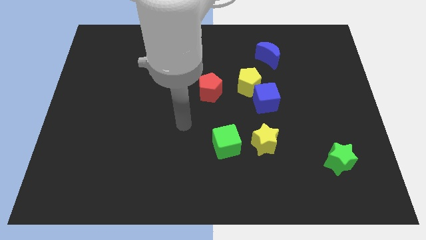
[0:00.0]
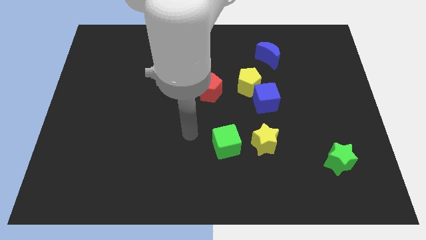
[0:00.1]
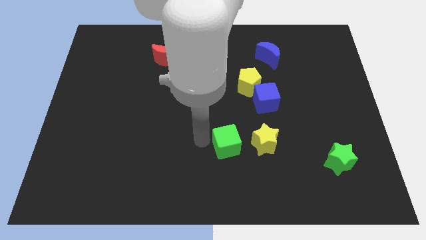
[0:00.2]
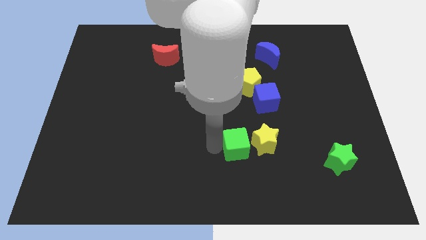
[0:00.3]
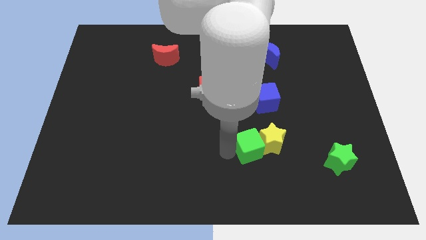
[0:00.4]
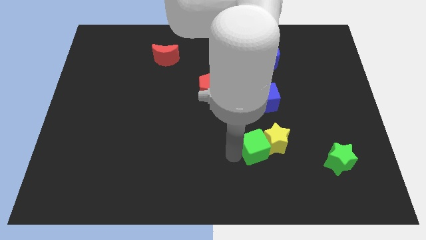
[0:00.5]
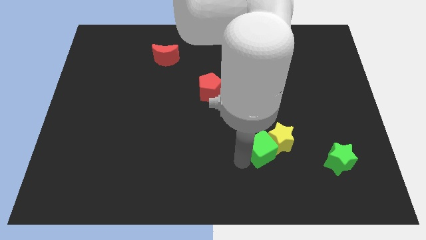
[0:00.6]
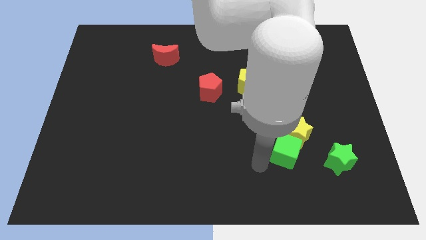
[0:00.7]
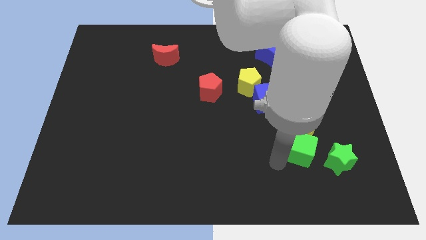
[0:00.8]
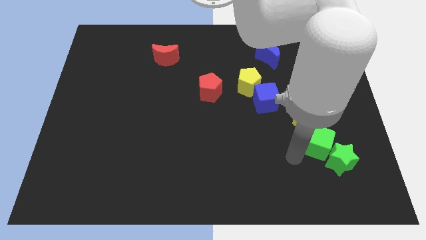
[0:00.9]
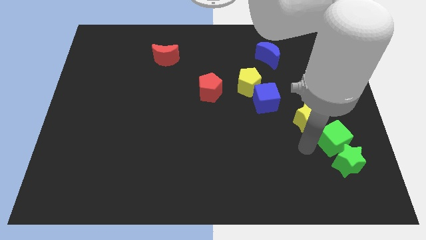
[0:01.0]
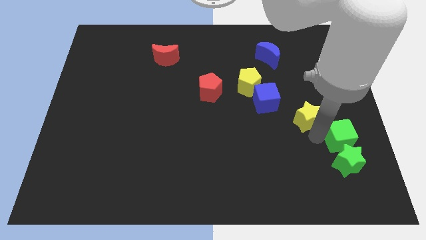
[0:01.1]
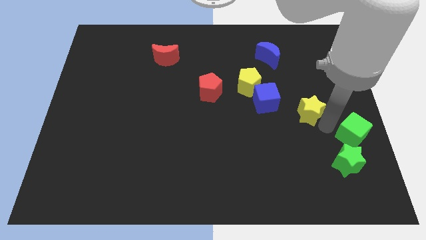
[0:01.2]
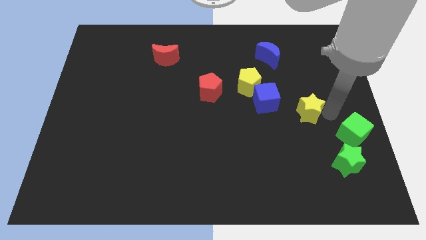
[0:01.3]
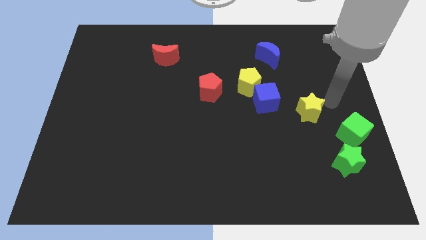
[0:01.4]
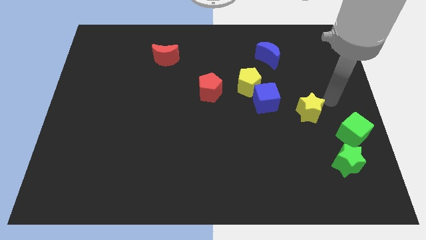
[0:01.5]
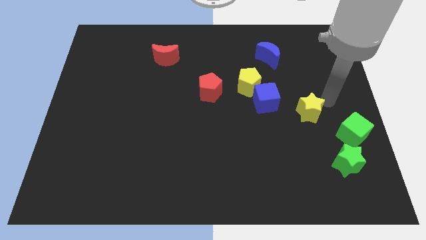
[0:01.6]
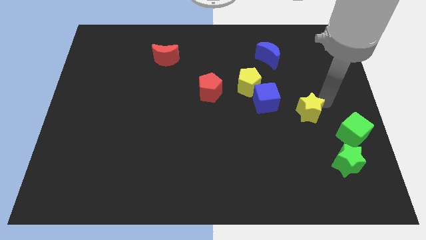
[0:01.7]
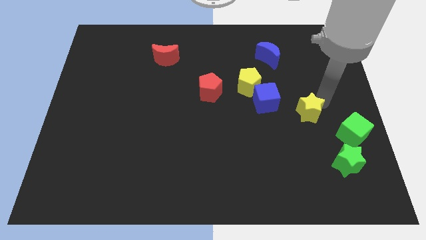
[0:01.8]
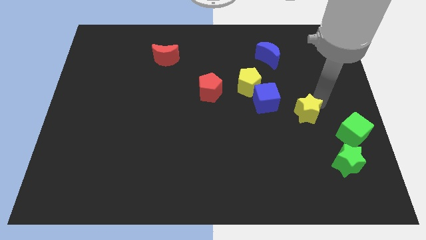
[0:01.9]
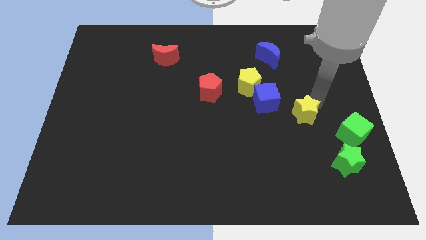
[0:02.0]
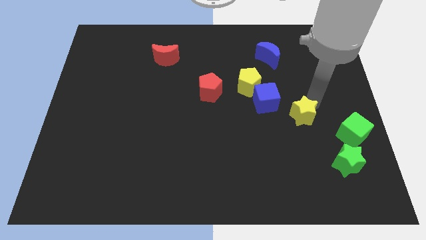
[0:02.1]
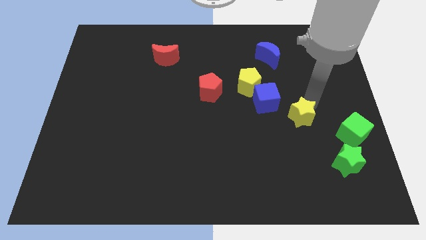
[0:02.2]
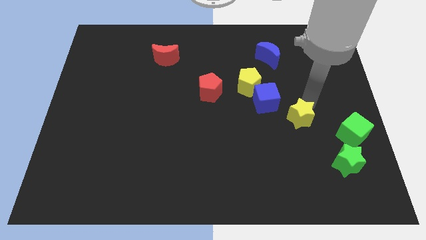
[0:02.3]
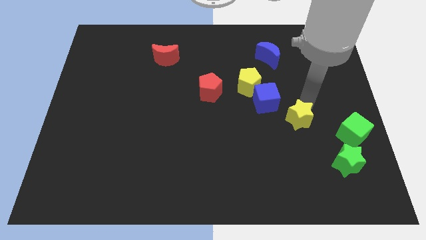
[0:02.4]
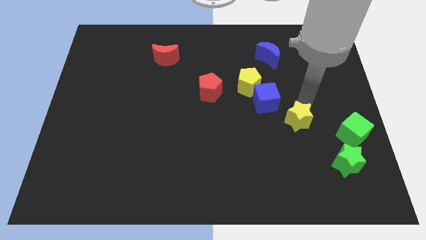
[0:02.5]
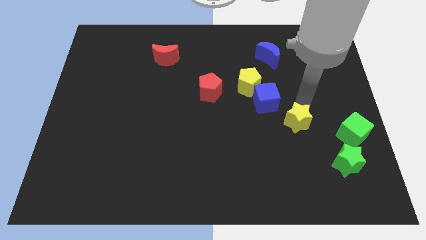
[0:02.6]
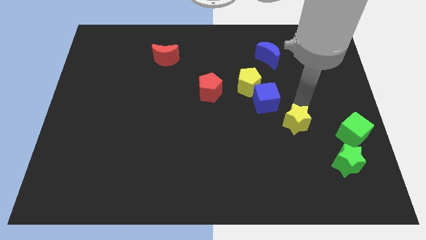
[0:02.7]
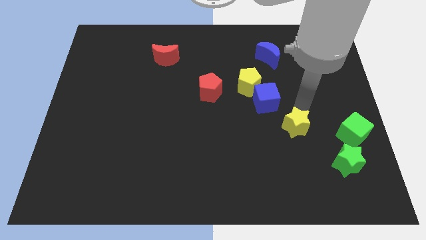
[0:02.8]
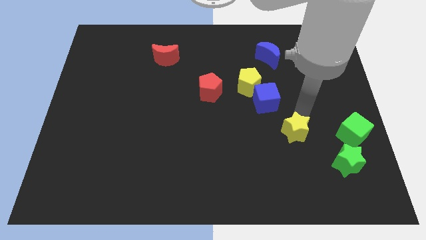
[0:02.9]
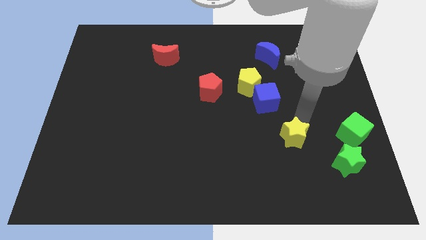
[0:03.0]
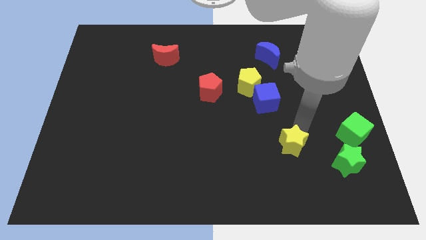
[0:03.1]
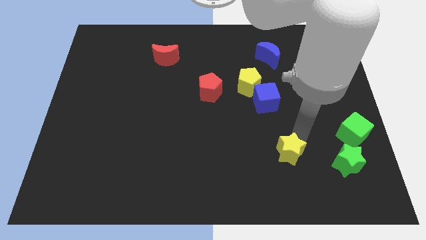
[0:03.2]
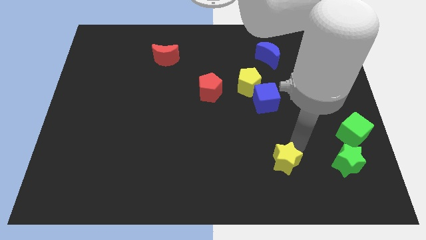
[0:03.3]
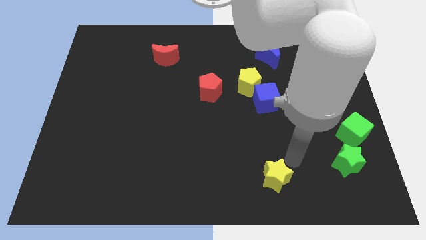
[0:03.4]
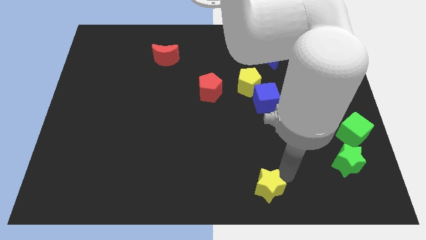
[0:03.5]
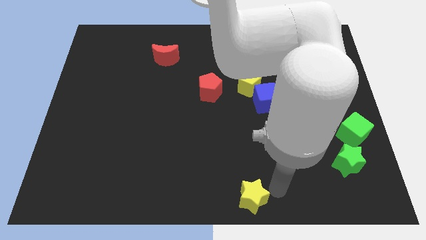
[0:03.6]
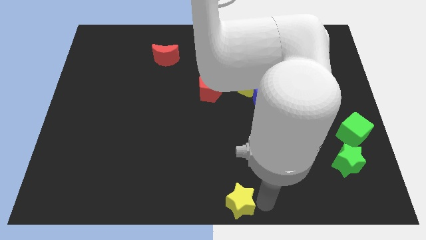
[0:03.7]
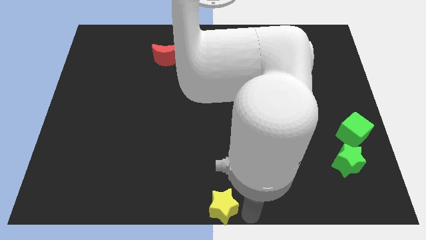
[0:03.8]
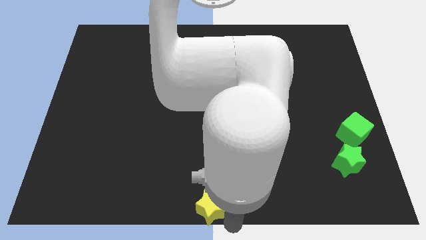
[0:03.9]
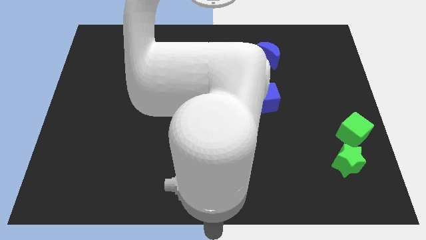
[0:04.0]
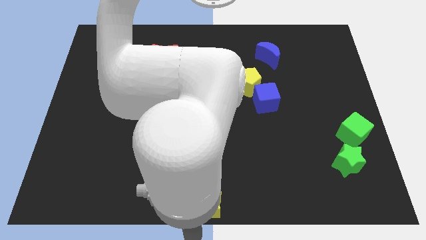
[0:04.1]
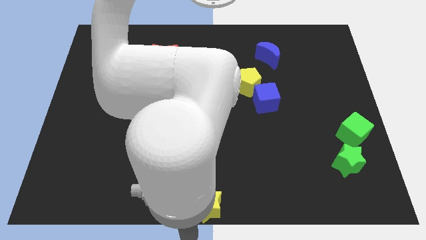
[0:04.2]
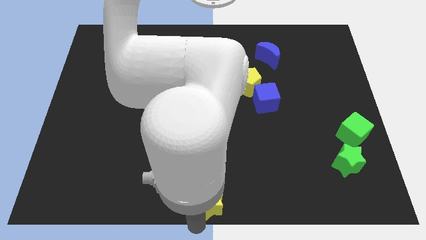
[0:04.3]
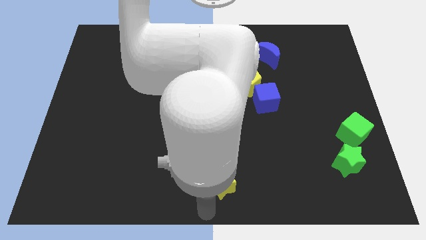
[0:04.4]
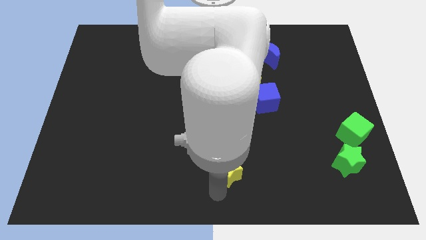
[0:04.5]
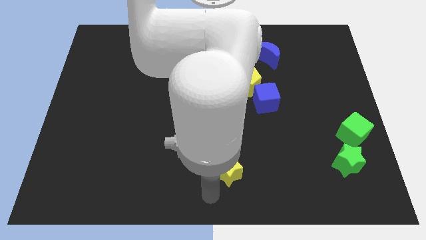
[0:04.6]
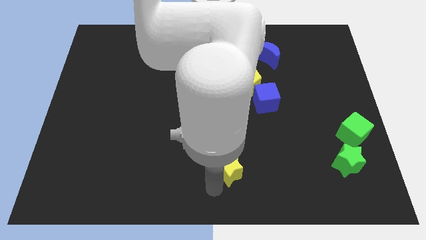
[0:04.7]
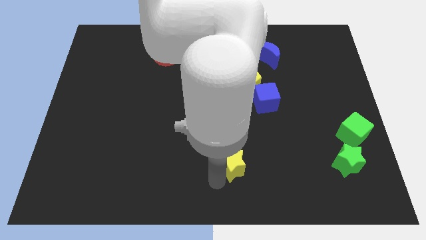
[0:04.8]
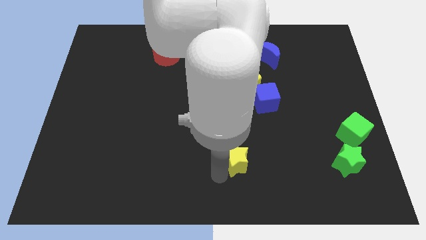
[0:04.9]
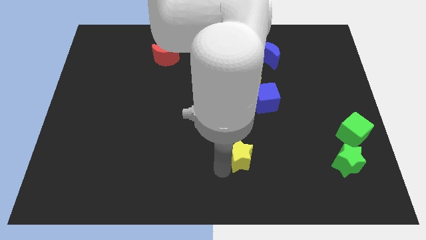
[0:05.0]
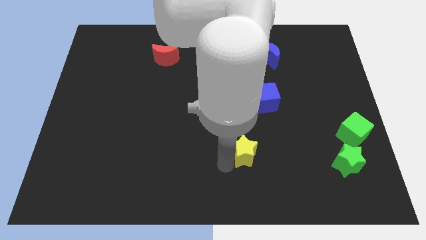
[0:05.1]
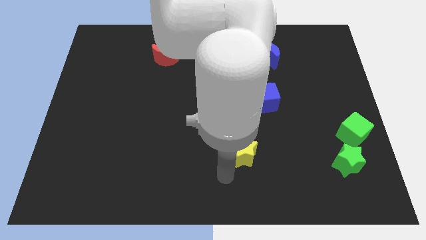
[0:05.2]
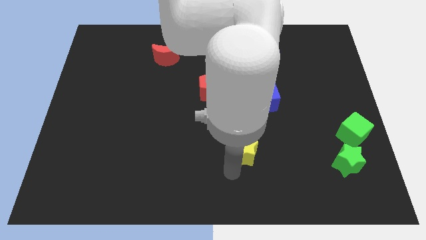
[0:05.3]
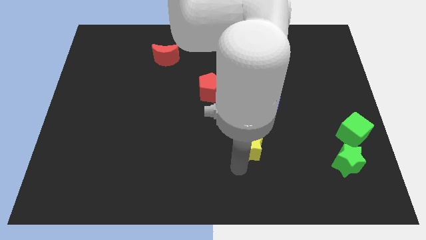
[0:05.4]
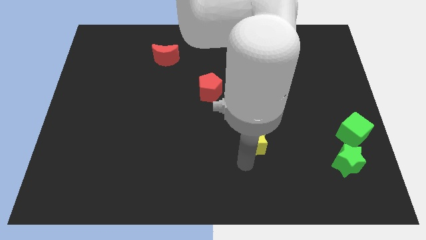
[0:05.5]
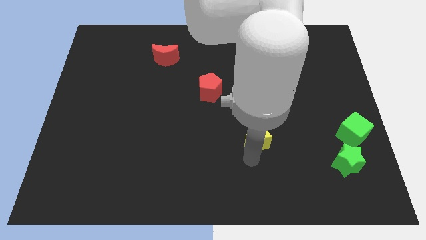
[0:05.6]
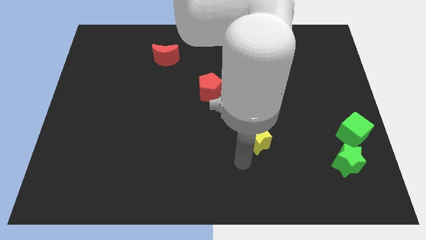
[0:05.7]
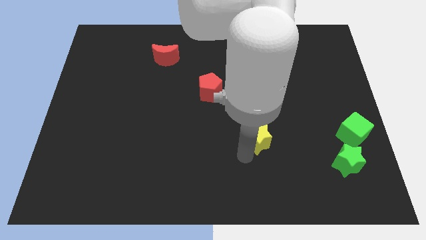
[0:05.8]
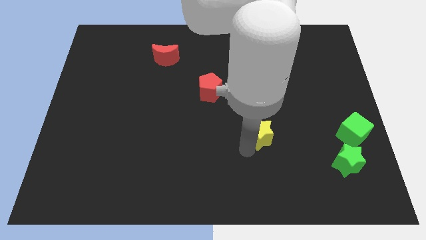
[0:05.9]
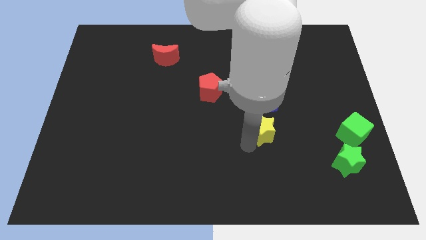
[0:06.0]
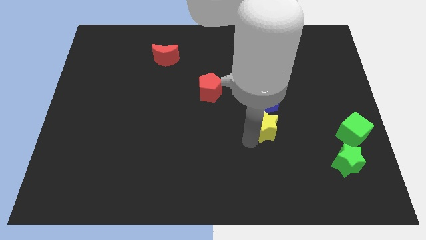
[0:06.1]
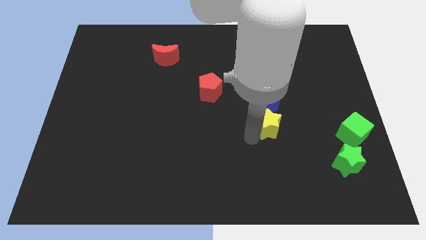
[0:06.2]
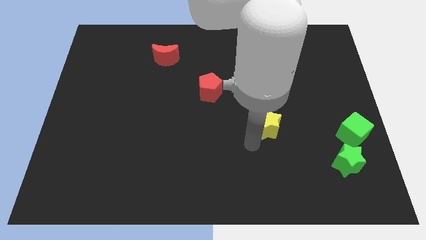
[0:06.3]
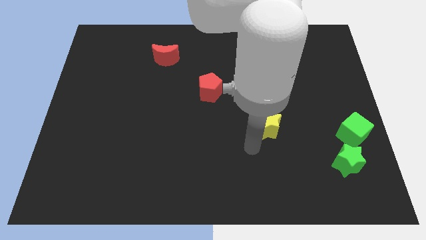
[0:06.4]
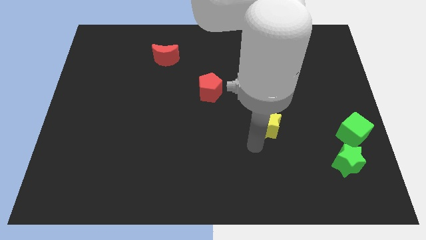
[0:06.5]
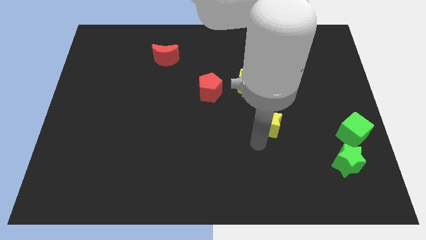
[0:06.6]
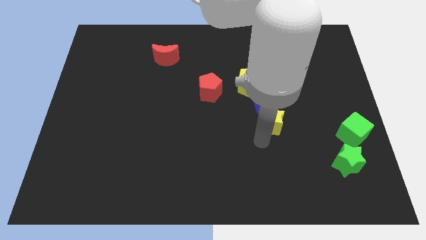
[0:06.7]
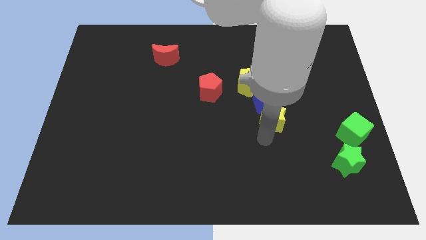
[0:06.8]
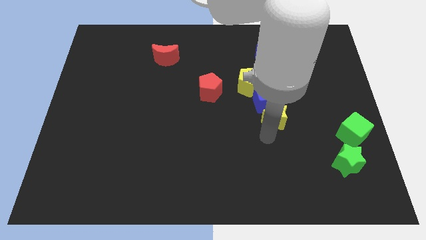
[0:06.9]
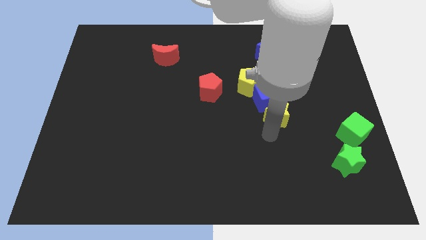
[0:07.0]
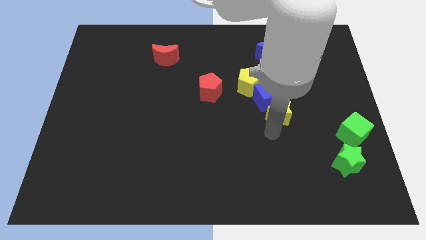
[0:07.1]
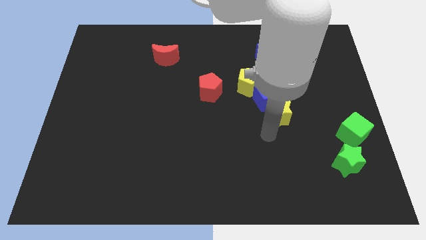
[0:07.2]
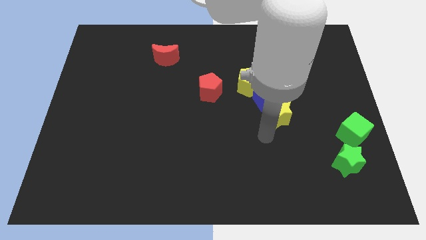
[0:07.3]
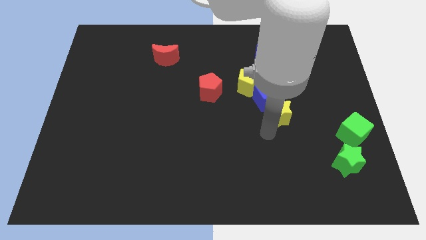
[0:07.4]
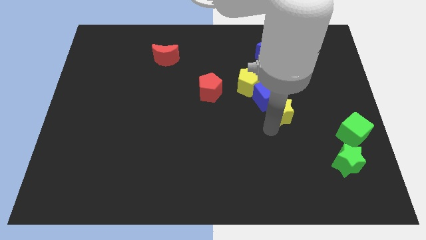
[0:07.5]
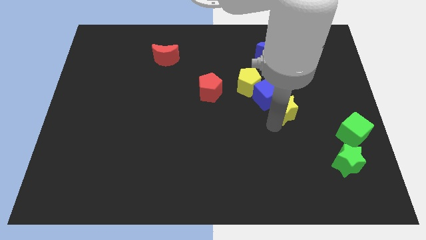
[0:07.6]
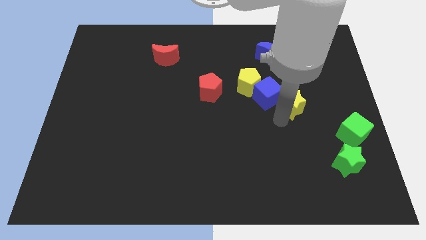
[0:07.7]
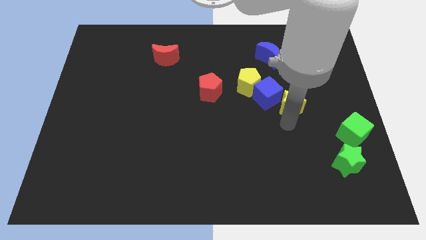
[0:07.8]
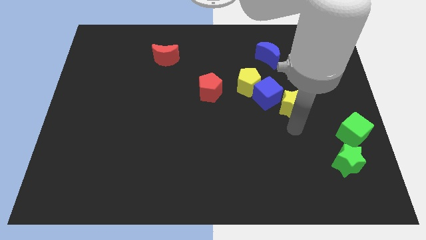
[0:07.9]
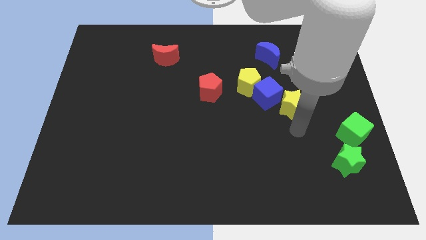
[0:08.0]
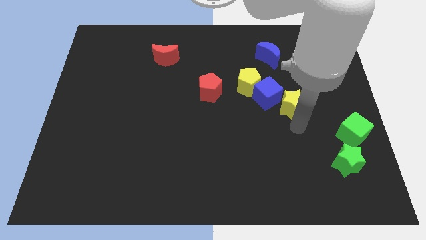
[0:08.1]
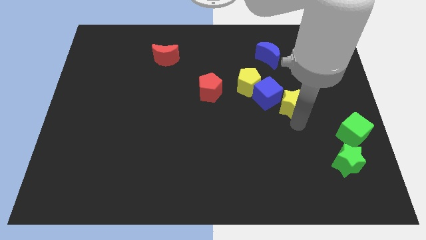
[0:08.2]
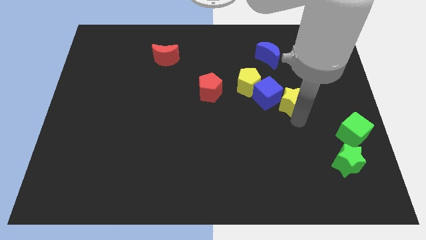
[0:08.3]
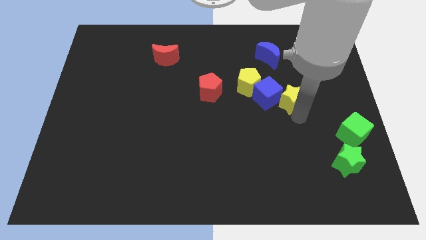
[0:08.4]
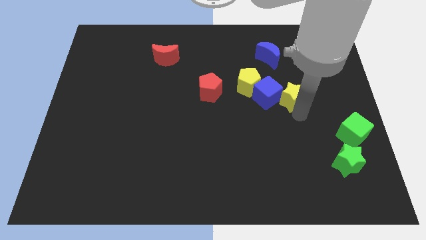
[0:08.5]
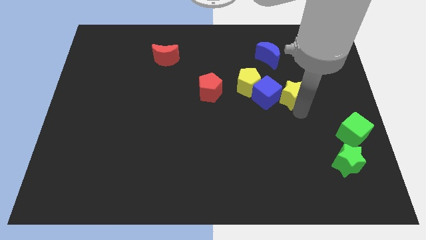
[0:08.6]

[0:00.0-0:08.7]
move the yellow star to the top right of the blue cube
